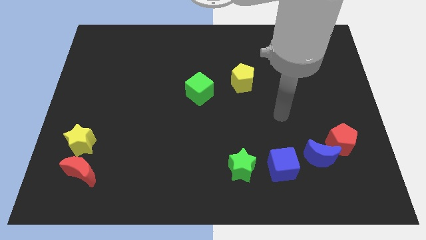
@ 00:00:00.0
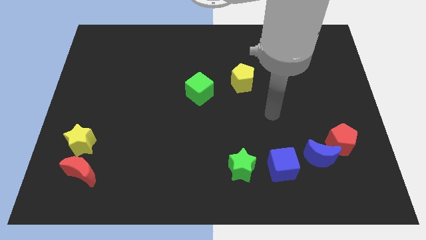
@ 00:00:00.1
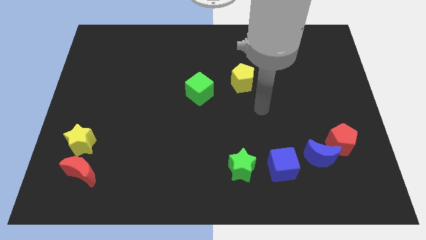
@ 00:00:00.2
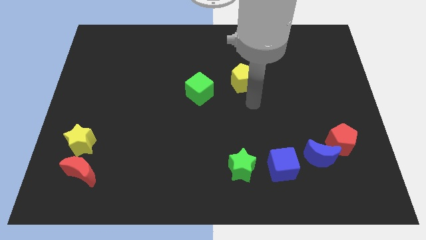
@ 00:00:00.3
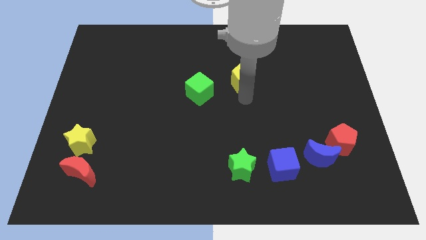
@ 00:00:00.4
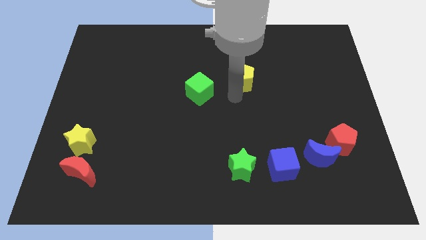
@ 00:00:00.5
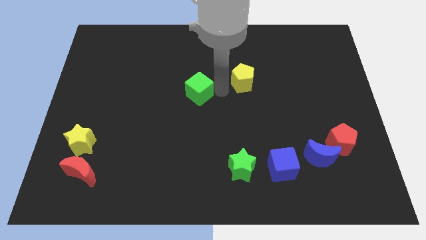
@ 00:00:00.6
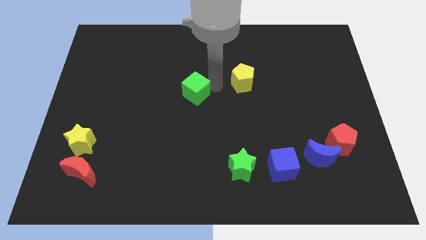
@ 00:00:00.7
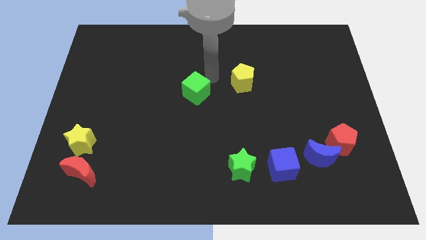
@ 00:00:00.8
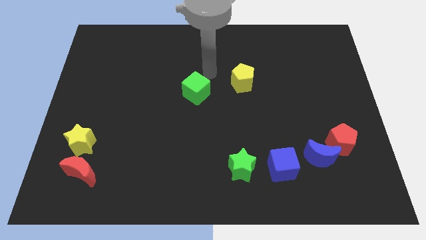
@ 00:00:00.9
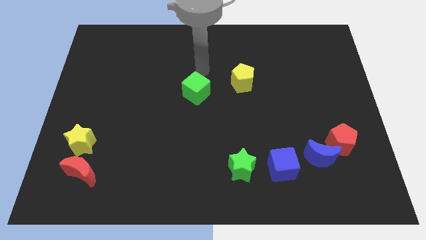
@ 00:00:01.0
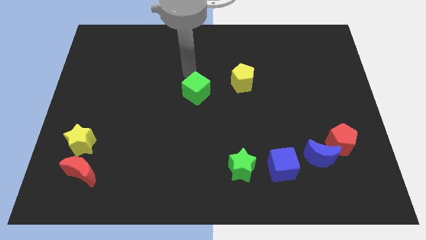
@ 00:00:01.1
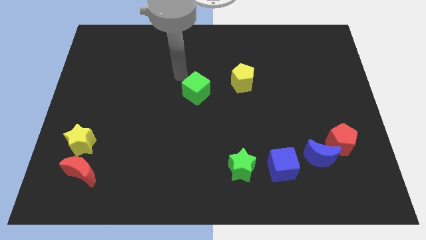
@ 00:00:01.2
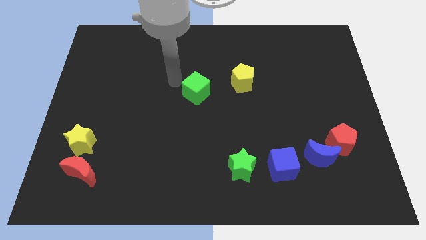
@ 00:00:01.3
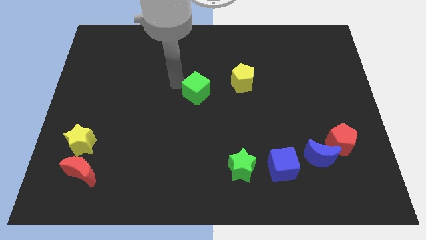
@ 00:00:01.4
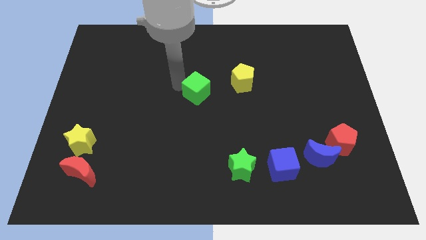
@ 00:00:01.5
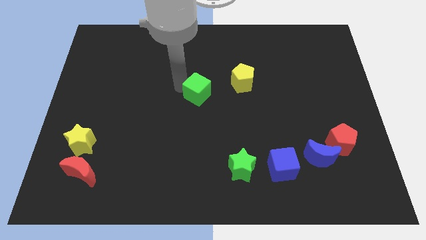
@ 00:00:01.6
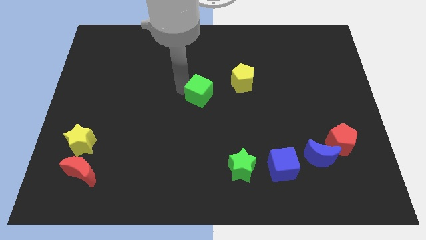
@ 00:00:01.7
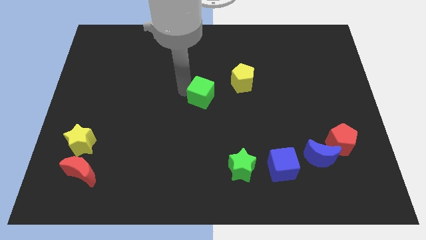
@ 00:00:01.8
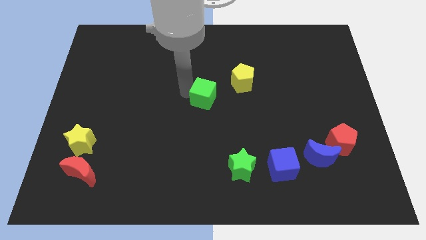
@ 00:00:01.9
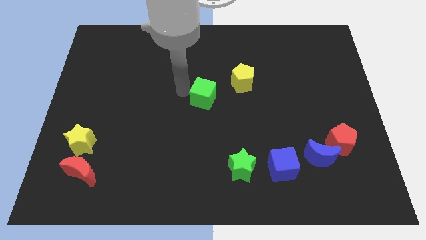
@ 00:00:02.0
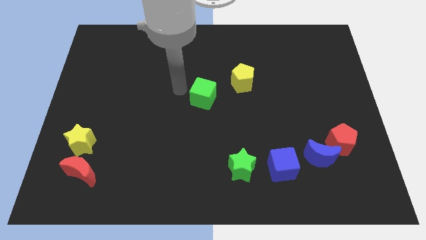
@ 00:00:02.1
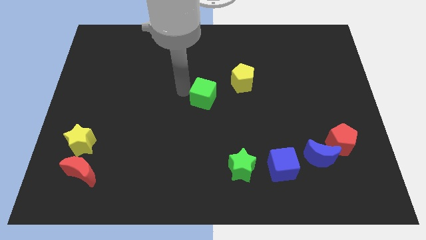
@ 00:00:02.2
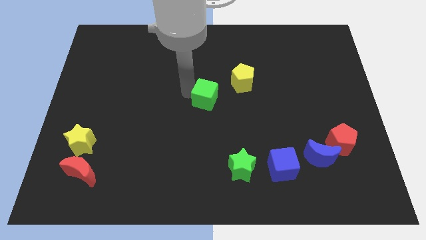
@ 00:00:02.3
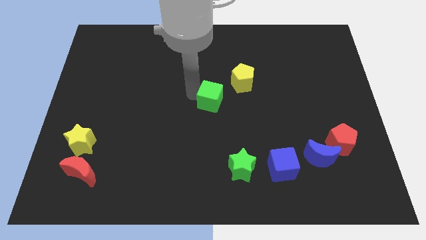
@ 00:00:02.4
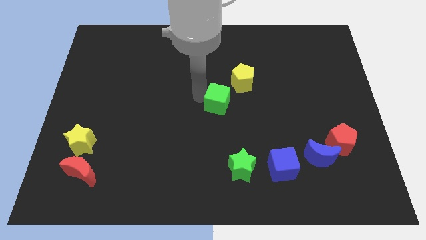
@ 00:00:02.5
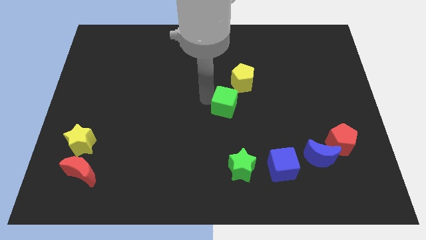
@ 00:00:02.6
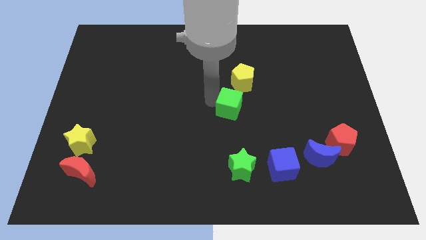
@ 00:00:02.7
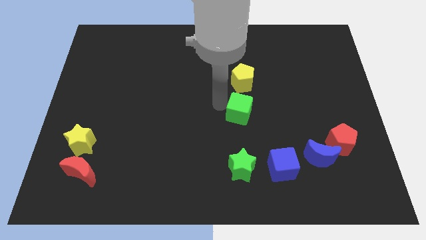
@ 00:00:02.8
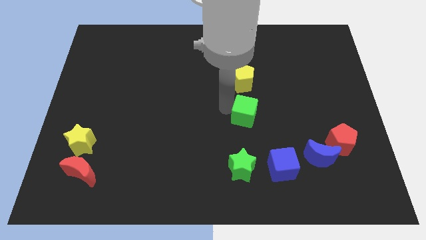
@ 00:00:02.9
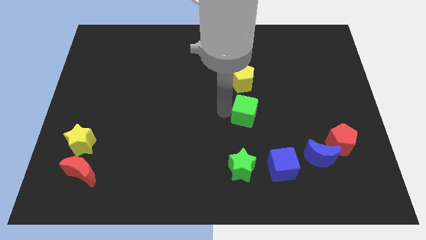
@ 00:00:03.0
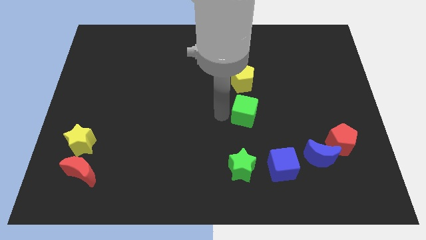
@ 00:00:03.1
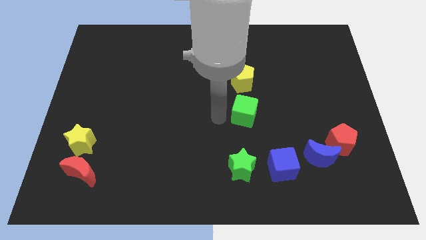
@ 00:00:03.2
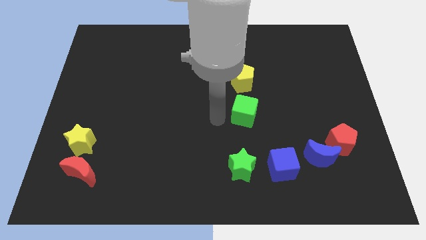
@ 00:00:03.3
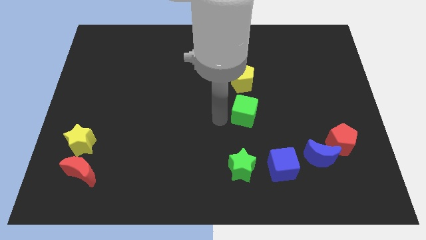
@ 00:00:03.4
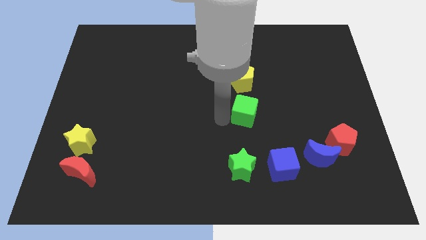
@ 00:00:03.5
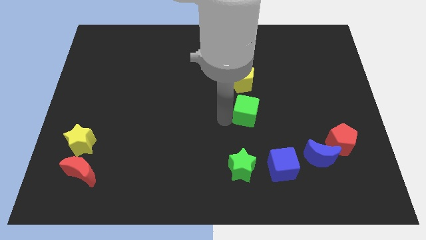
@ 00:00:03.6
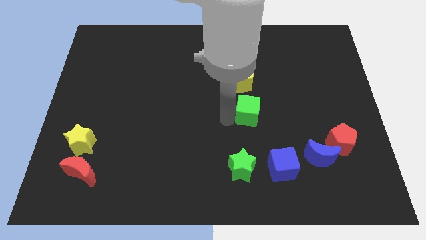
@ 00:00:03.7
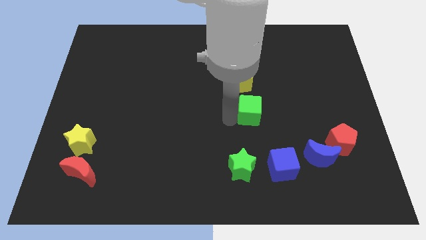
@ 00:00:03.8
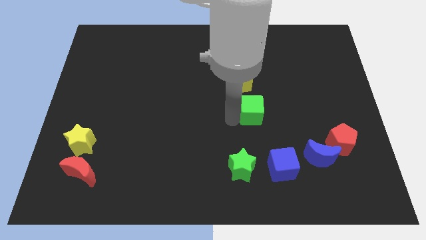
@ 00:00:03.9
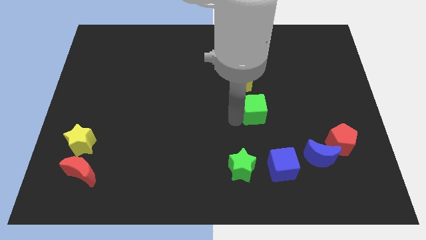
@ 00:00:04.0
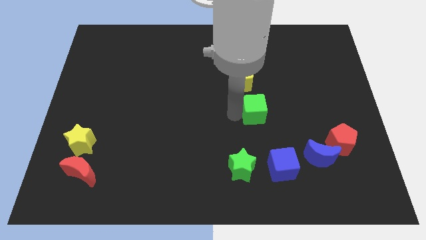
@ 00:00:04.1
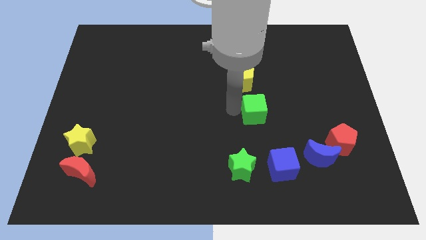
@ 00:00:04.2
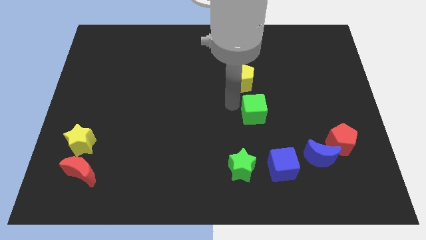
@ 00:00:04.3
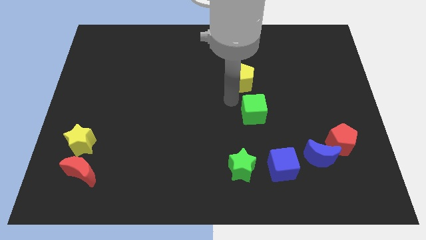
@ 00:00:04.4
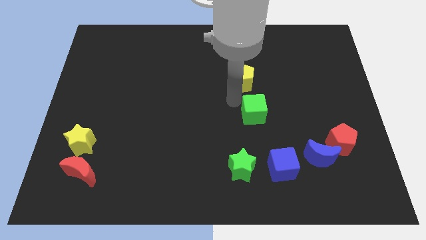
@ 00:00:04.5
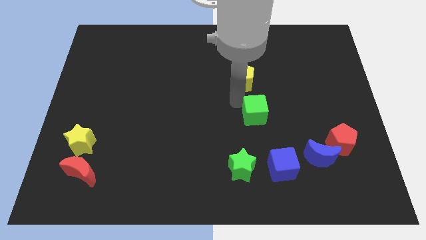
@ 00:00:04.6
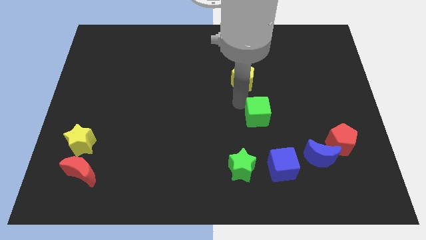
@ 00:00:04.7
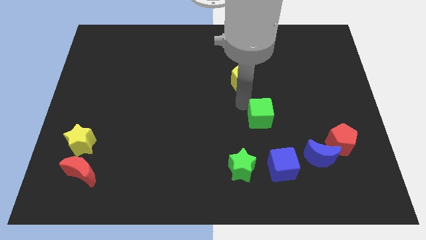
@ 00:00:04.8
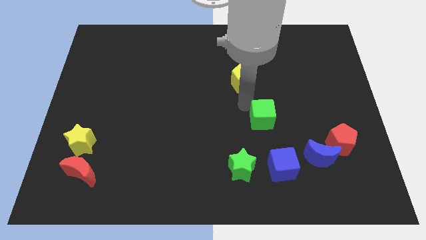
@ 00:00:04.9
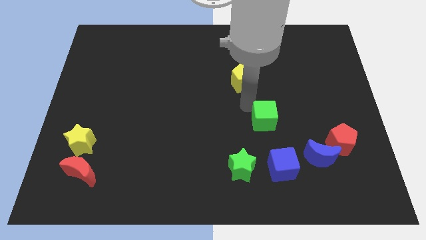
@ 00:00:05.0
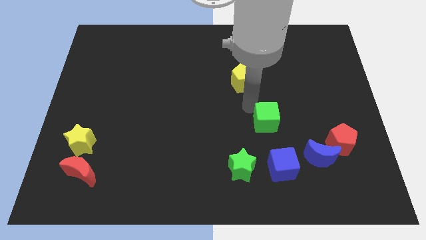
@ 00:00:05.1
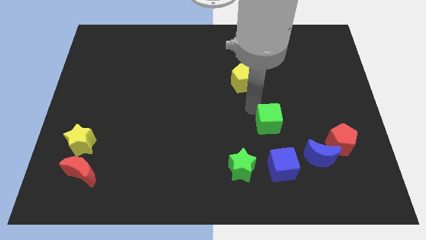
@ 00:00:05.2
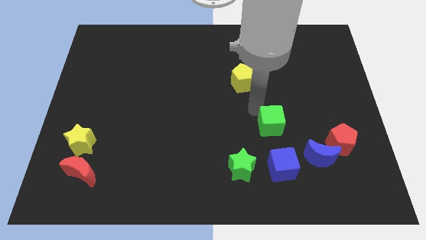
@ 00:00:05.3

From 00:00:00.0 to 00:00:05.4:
slide the green cube diagonally up and to the left of the blue moon

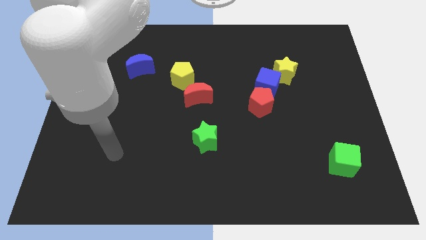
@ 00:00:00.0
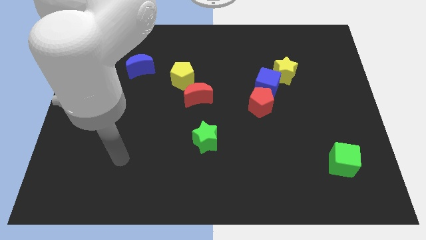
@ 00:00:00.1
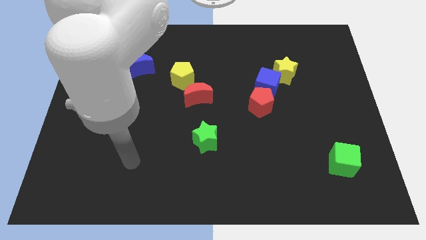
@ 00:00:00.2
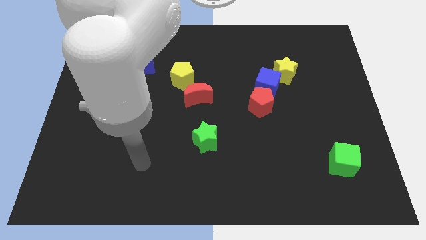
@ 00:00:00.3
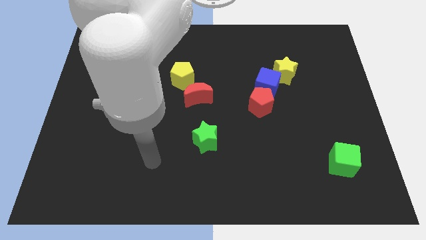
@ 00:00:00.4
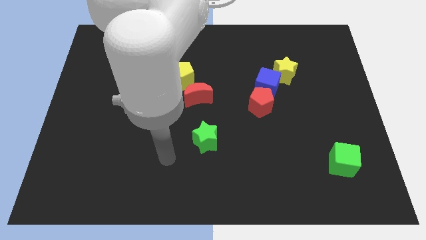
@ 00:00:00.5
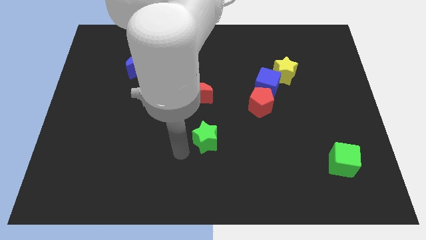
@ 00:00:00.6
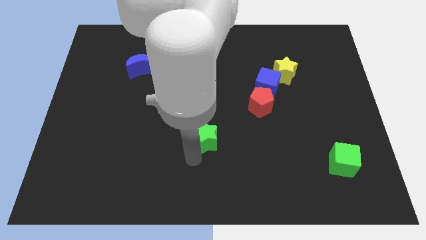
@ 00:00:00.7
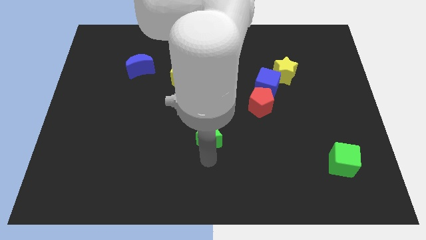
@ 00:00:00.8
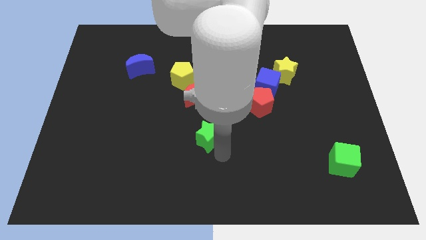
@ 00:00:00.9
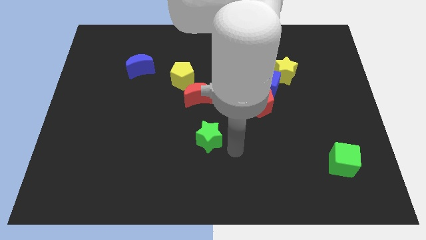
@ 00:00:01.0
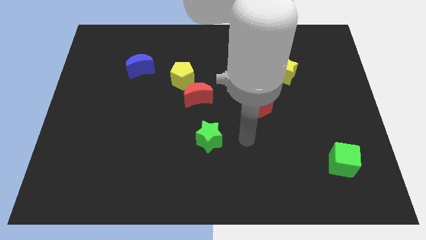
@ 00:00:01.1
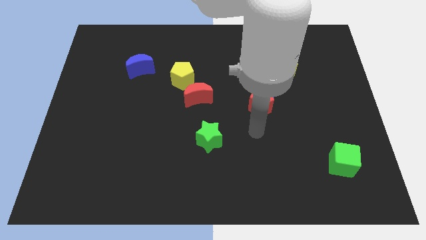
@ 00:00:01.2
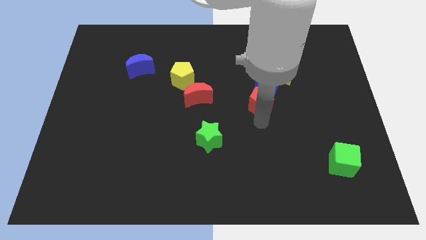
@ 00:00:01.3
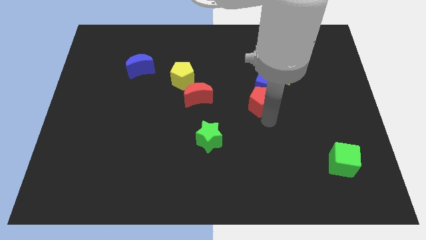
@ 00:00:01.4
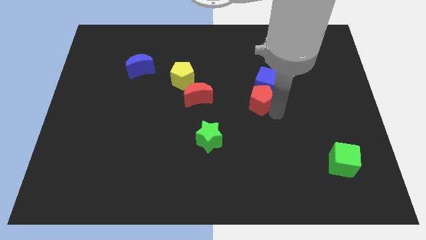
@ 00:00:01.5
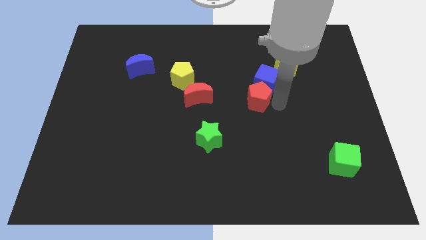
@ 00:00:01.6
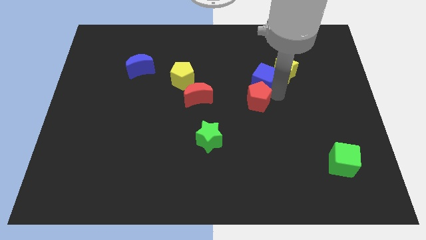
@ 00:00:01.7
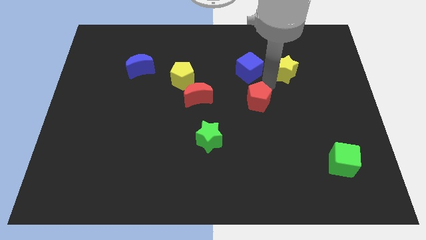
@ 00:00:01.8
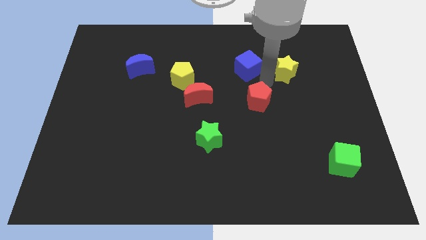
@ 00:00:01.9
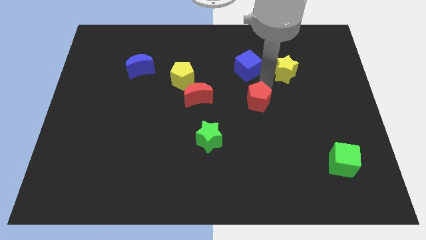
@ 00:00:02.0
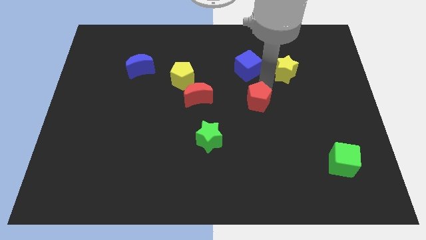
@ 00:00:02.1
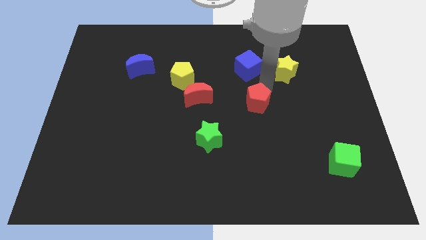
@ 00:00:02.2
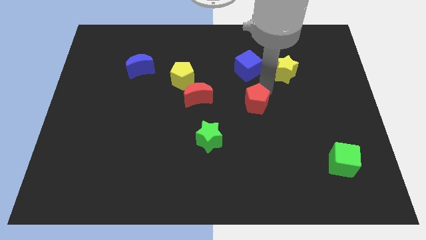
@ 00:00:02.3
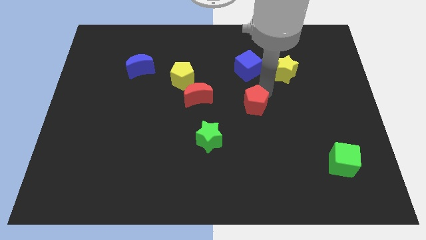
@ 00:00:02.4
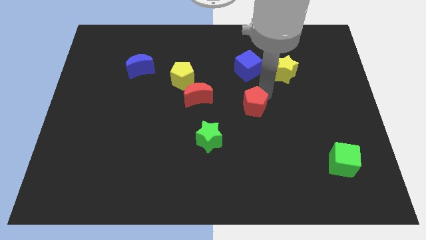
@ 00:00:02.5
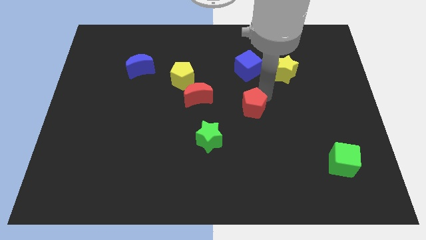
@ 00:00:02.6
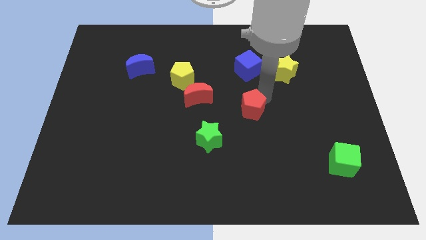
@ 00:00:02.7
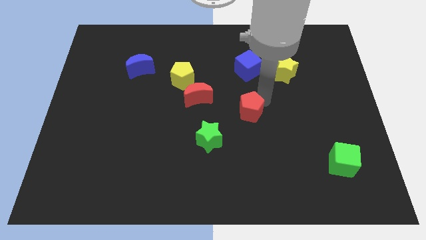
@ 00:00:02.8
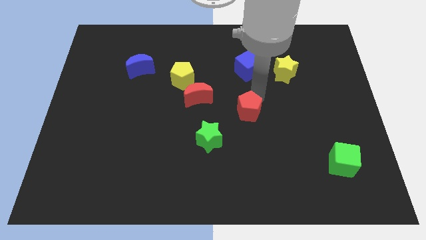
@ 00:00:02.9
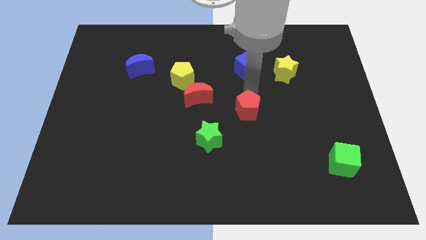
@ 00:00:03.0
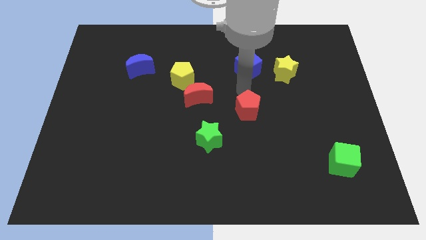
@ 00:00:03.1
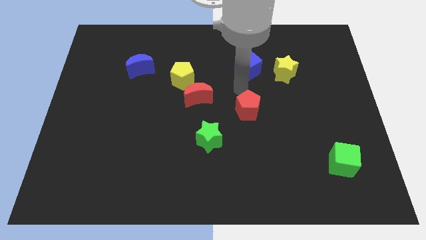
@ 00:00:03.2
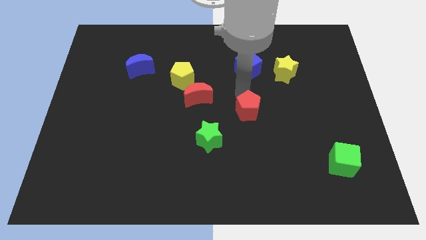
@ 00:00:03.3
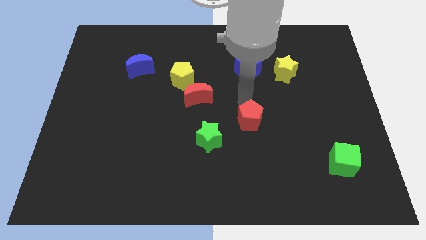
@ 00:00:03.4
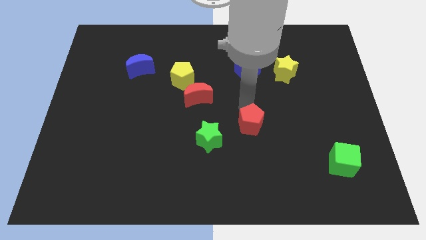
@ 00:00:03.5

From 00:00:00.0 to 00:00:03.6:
put the red pentagon to the right side of the green star
